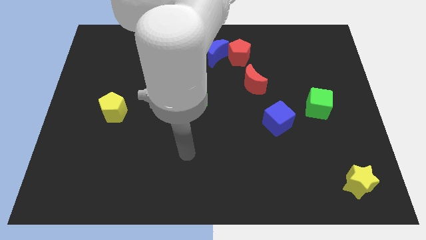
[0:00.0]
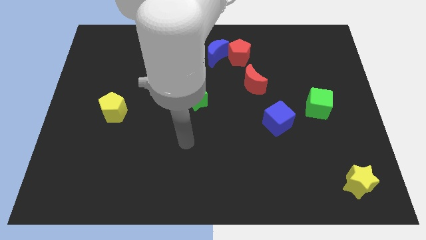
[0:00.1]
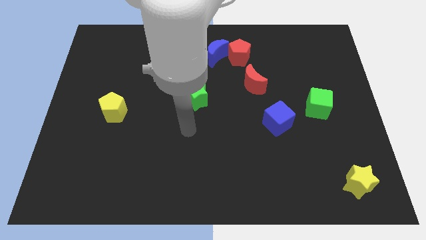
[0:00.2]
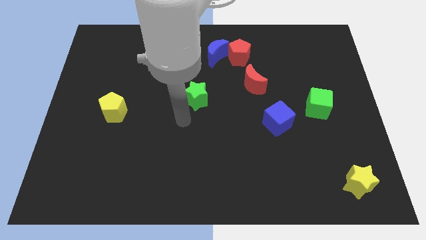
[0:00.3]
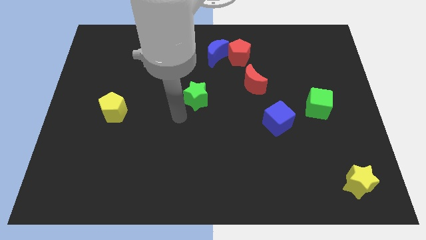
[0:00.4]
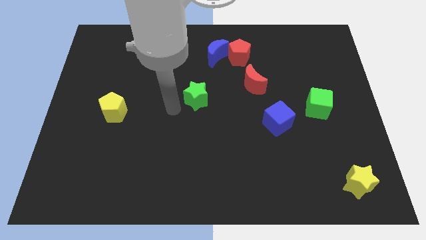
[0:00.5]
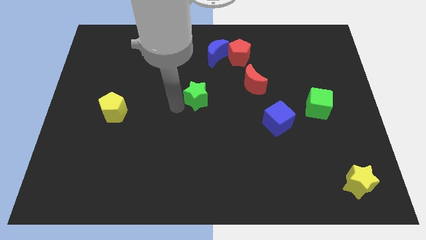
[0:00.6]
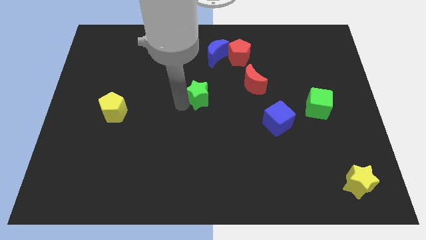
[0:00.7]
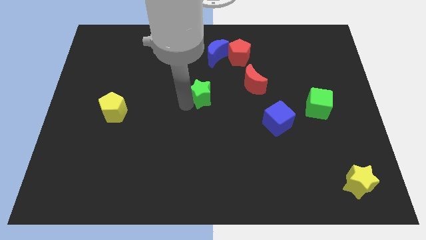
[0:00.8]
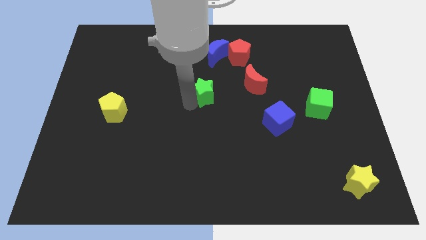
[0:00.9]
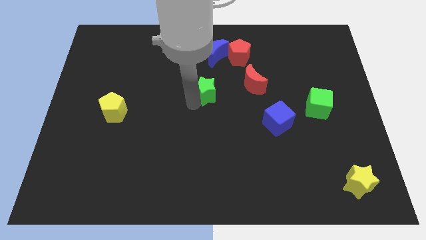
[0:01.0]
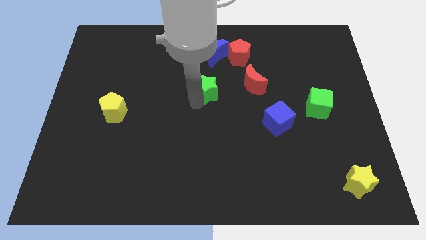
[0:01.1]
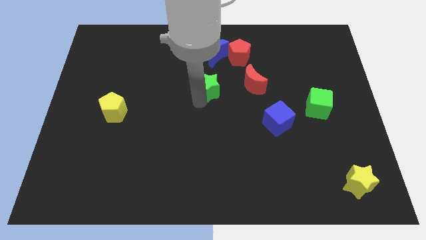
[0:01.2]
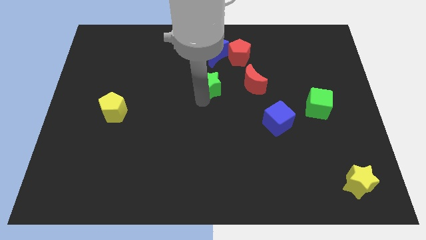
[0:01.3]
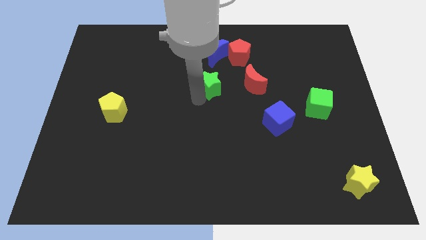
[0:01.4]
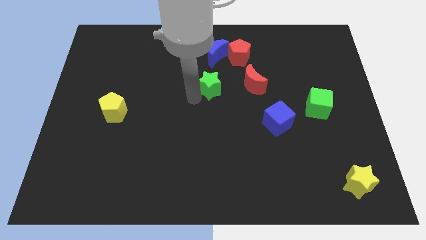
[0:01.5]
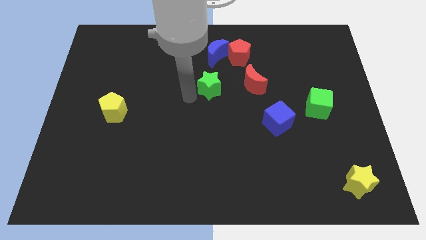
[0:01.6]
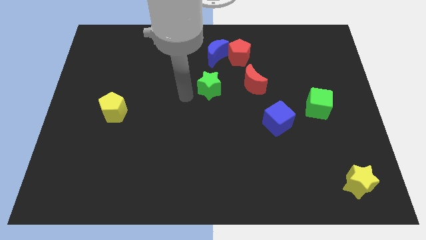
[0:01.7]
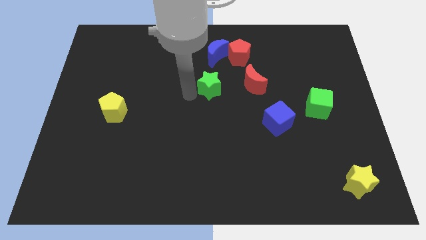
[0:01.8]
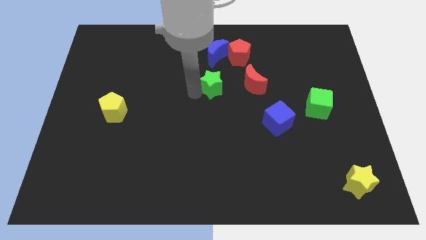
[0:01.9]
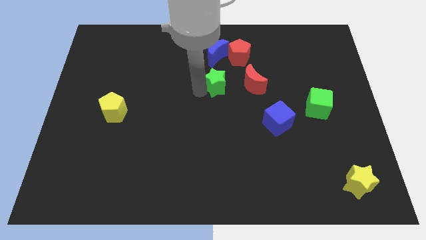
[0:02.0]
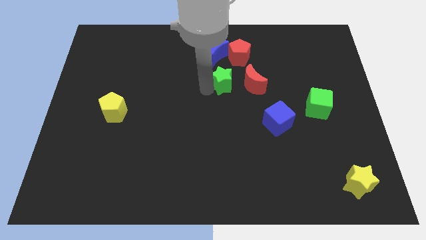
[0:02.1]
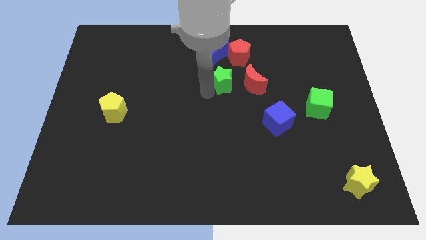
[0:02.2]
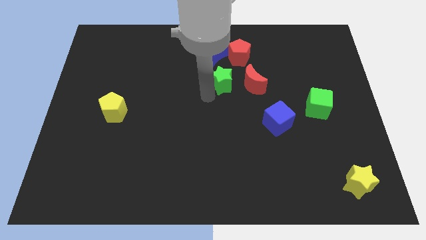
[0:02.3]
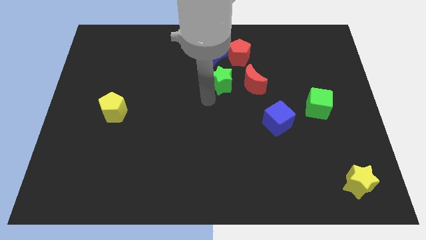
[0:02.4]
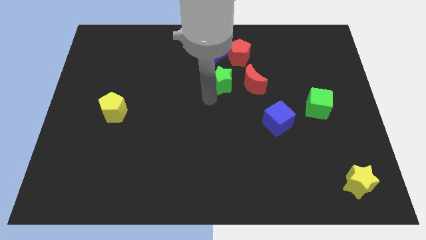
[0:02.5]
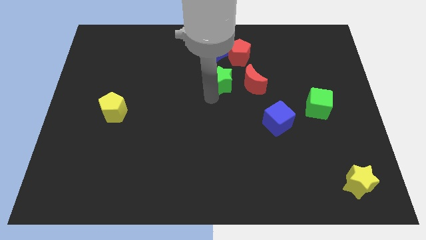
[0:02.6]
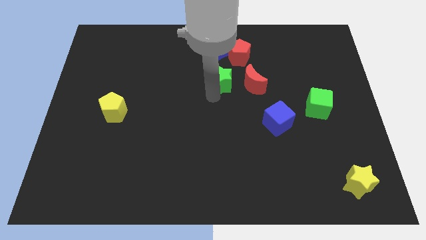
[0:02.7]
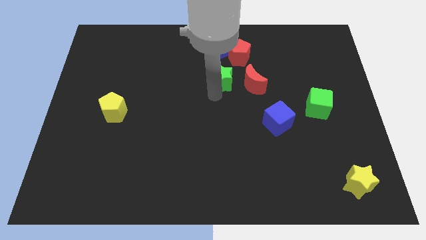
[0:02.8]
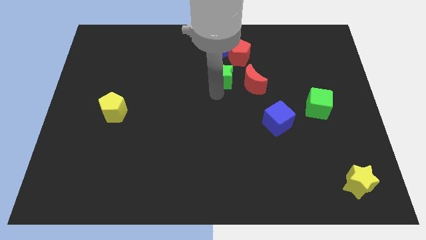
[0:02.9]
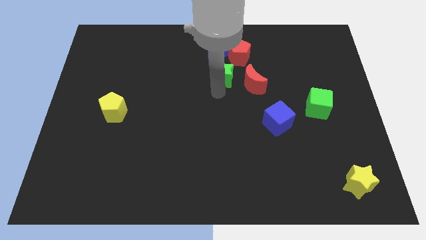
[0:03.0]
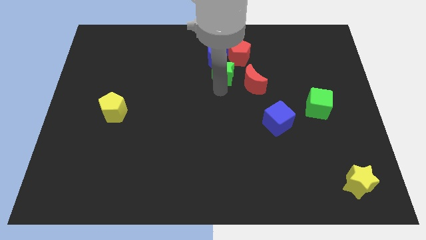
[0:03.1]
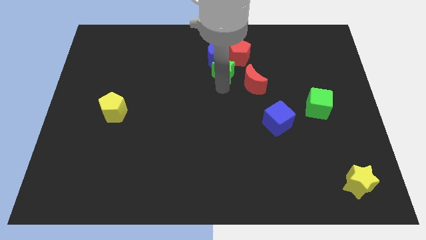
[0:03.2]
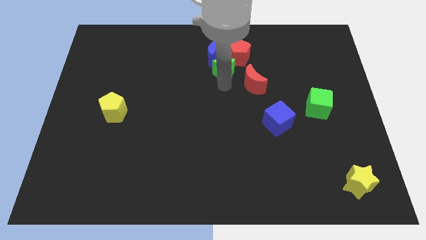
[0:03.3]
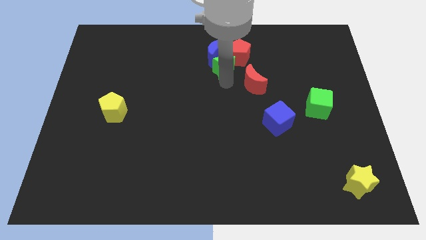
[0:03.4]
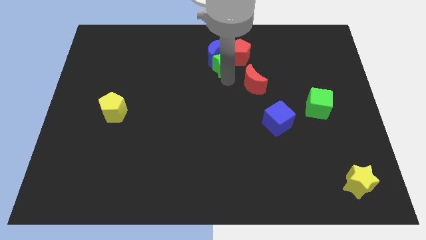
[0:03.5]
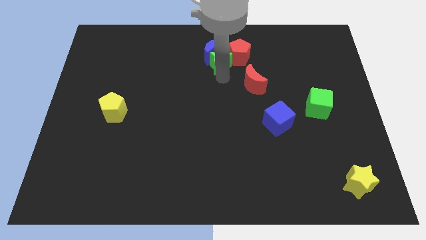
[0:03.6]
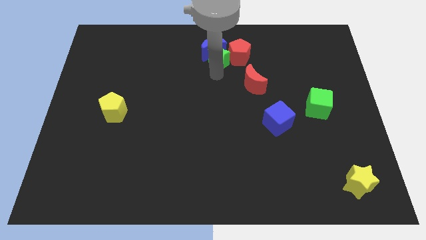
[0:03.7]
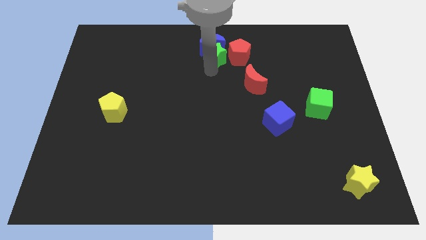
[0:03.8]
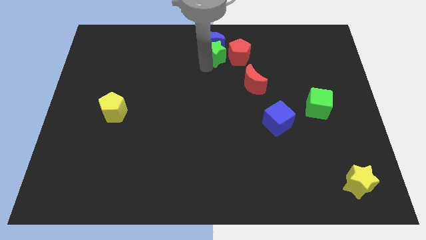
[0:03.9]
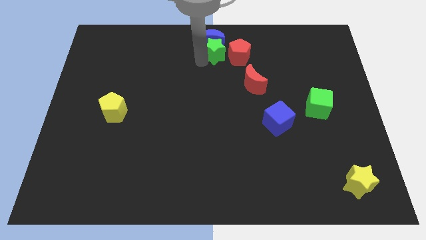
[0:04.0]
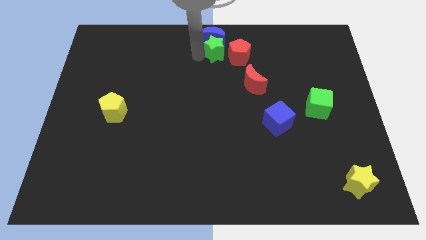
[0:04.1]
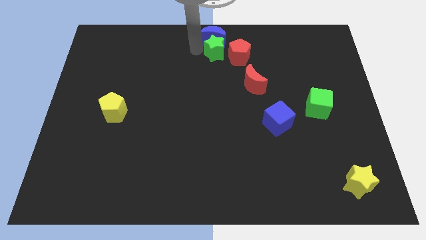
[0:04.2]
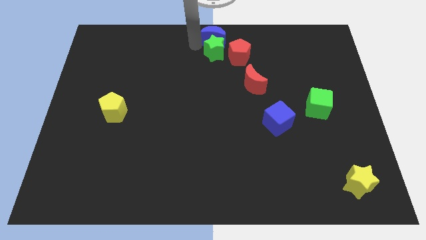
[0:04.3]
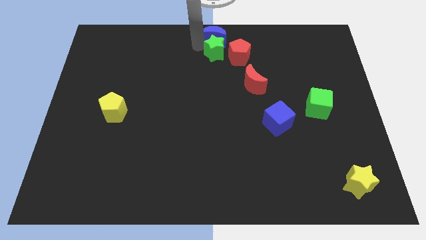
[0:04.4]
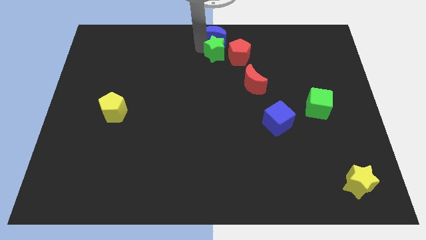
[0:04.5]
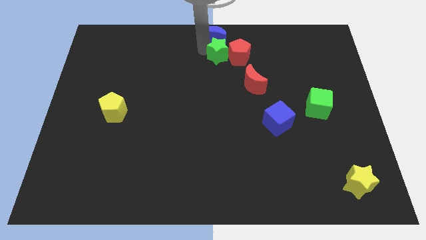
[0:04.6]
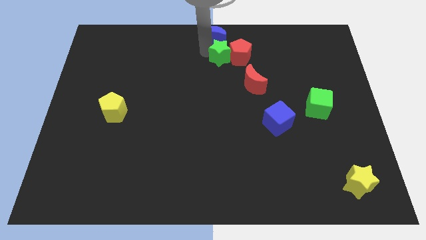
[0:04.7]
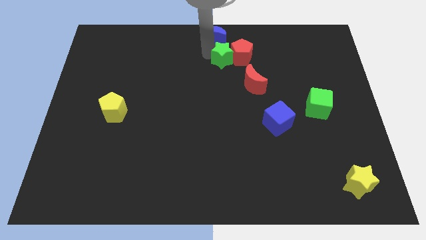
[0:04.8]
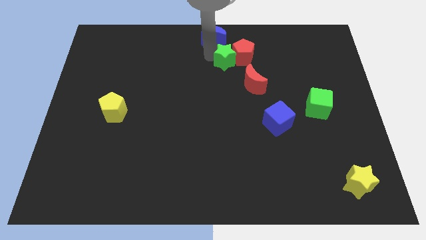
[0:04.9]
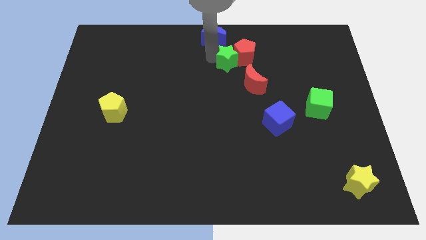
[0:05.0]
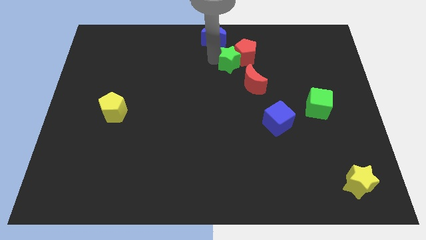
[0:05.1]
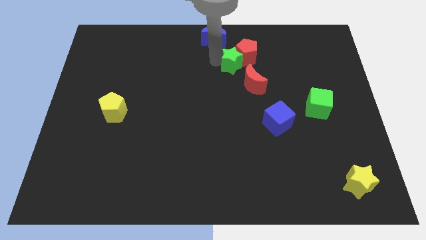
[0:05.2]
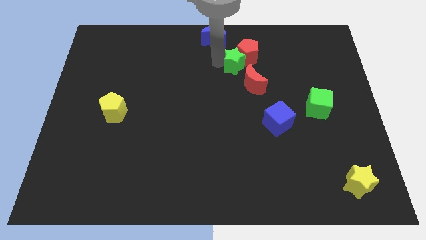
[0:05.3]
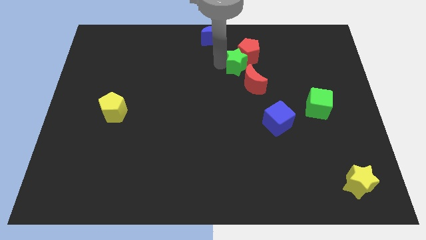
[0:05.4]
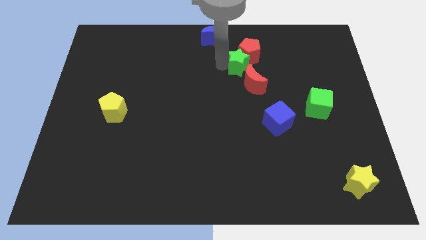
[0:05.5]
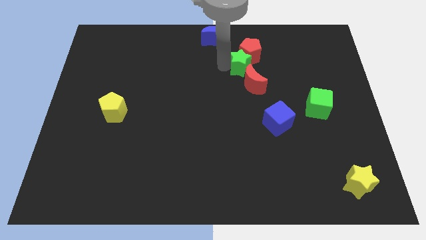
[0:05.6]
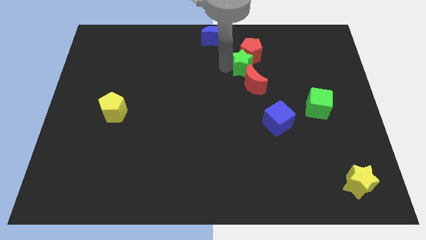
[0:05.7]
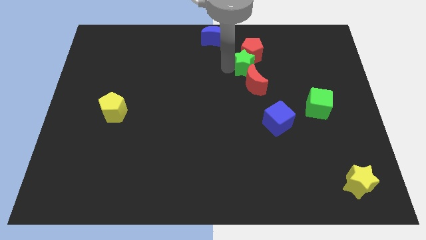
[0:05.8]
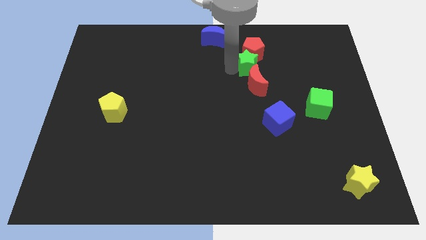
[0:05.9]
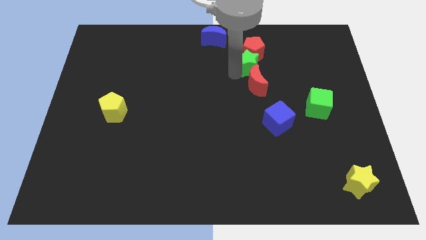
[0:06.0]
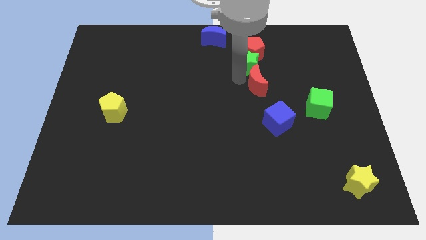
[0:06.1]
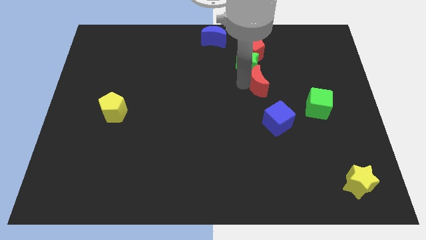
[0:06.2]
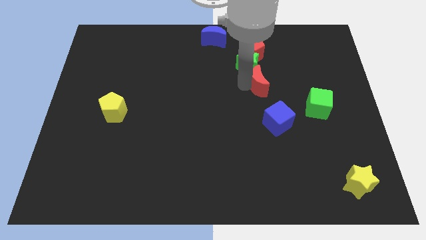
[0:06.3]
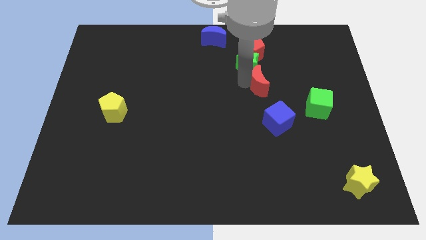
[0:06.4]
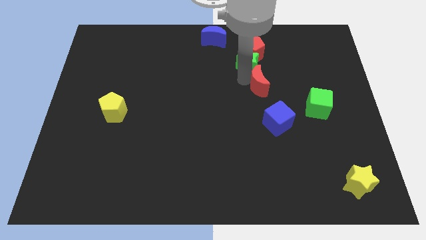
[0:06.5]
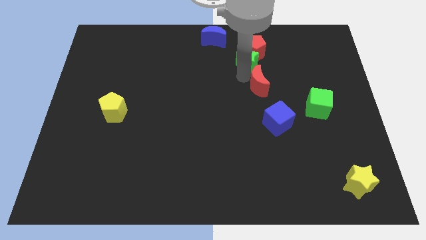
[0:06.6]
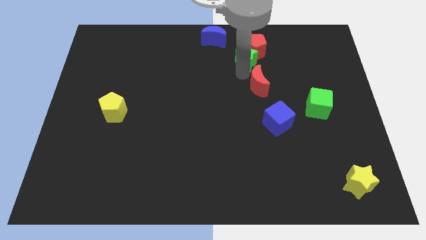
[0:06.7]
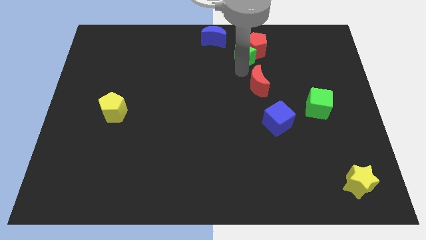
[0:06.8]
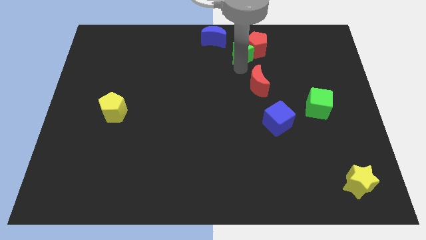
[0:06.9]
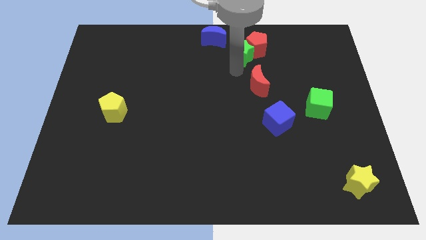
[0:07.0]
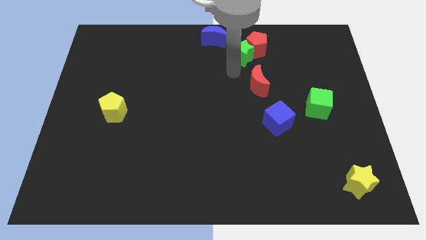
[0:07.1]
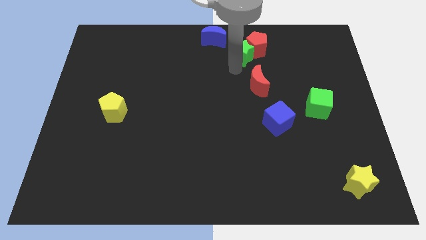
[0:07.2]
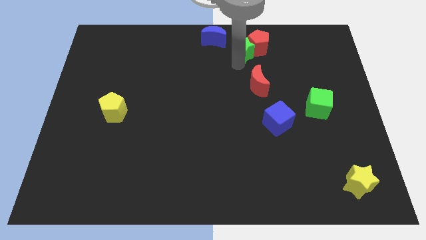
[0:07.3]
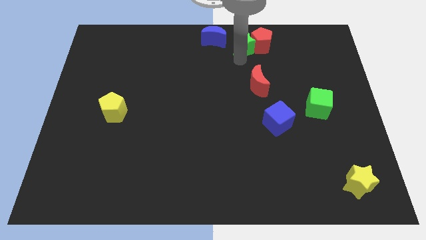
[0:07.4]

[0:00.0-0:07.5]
push the green star to the right side of the blue moon

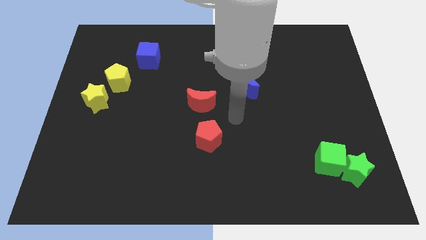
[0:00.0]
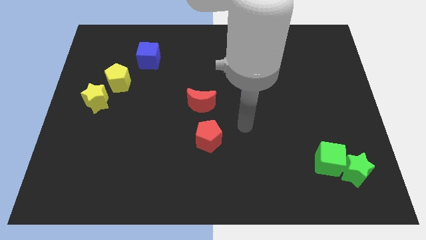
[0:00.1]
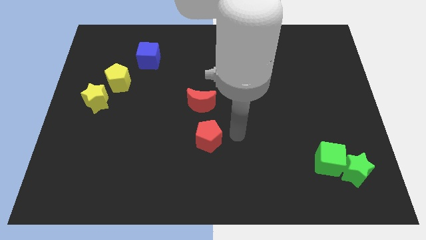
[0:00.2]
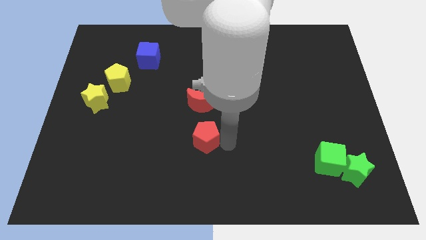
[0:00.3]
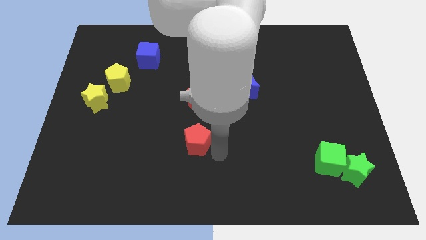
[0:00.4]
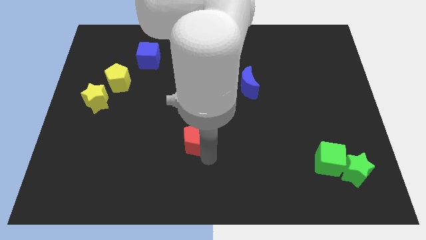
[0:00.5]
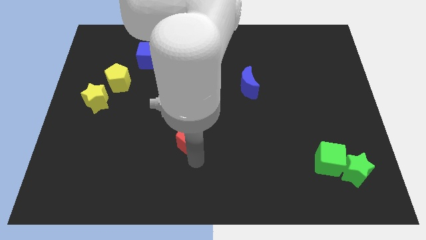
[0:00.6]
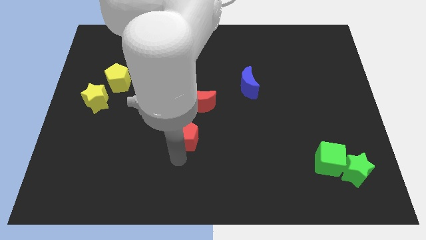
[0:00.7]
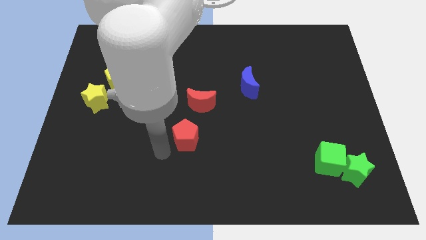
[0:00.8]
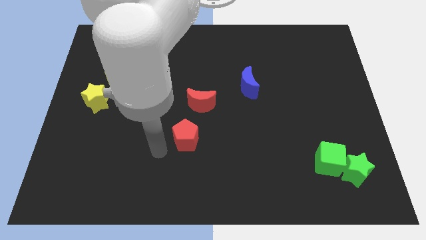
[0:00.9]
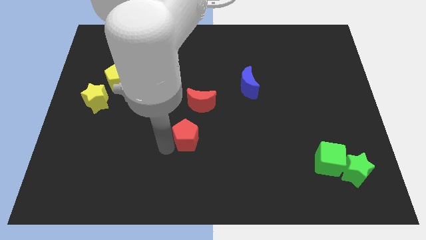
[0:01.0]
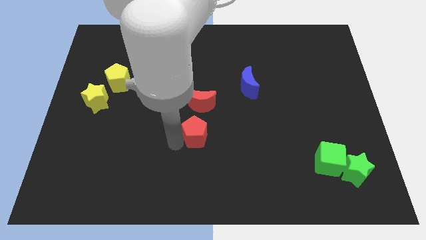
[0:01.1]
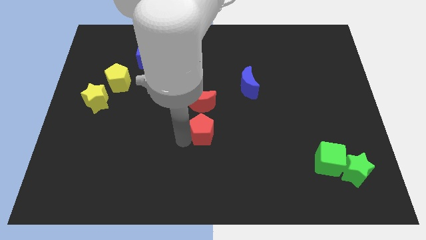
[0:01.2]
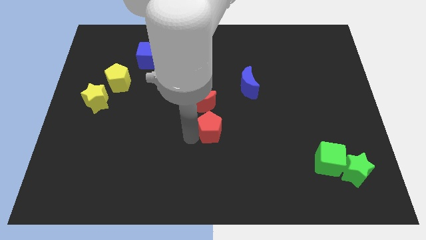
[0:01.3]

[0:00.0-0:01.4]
slide the red pentagon to the bottom right of the red moon
